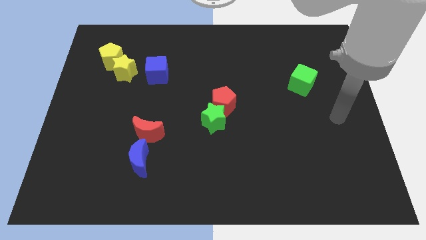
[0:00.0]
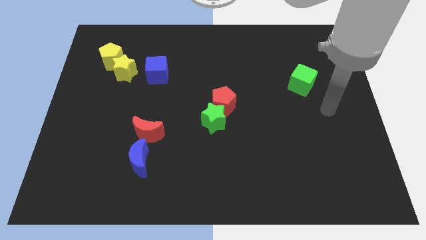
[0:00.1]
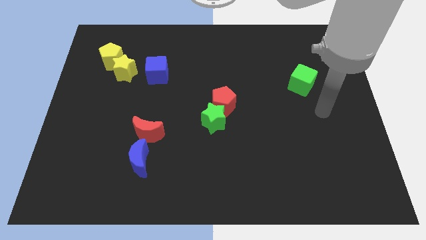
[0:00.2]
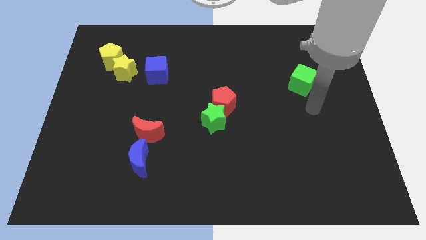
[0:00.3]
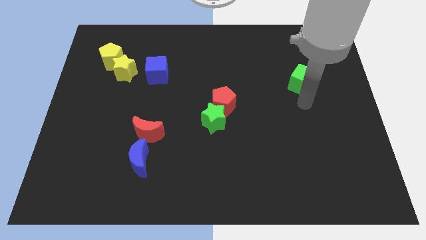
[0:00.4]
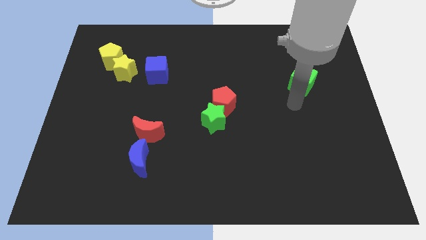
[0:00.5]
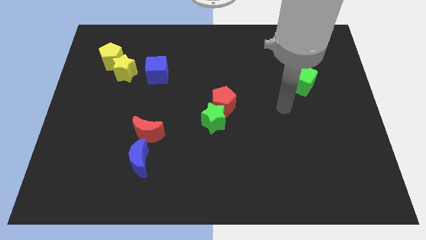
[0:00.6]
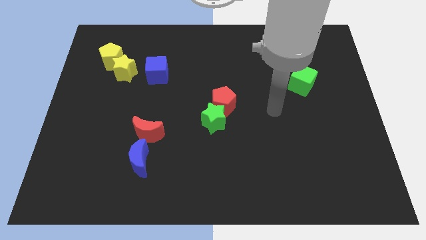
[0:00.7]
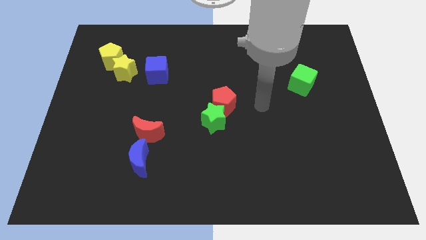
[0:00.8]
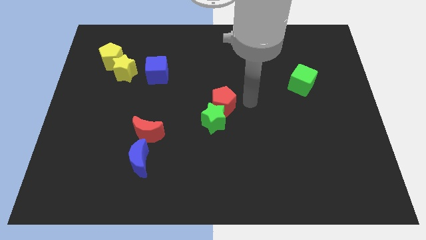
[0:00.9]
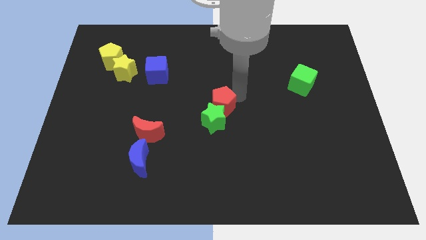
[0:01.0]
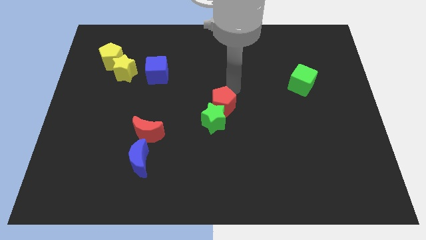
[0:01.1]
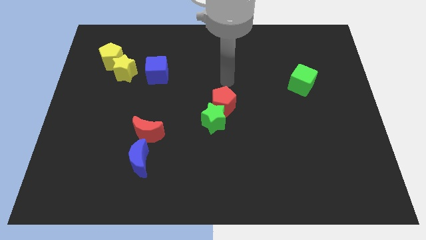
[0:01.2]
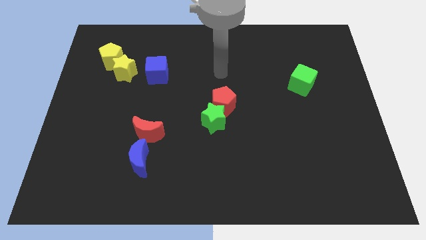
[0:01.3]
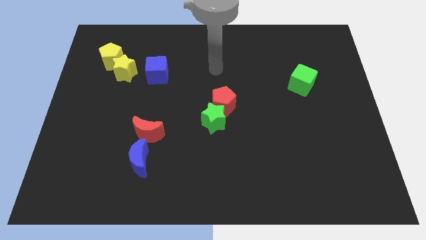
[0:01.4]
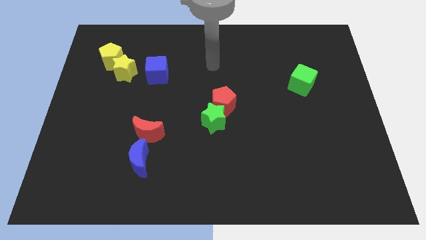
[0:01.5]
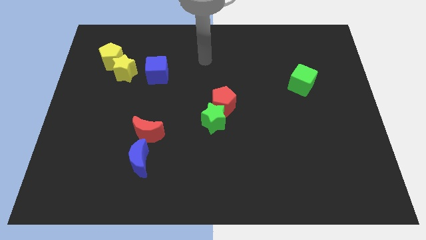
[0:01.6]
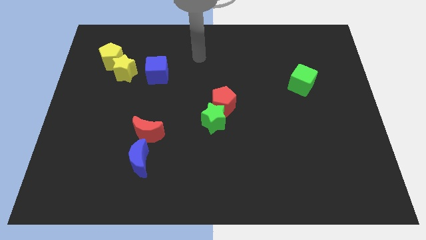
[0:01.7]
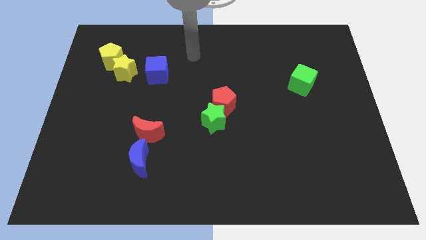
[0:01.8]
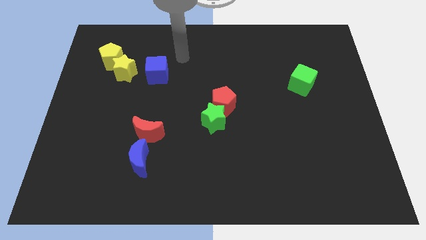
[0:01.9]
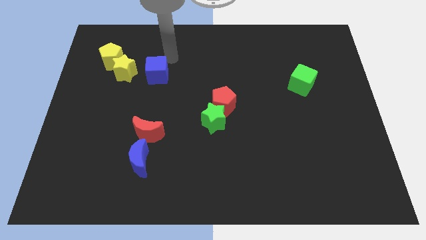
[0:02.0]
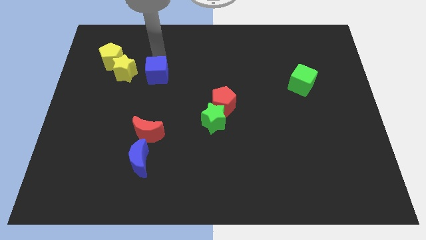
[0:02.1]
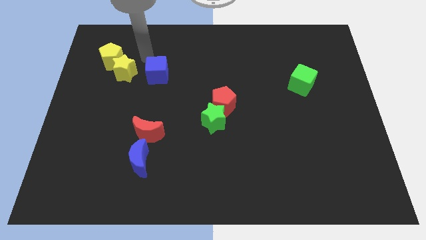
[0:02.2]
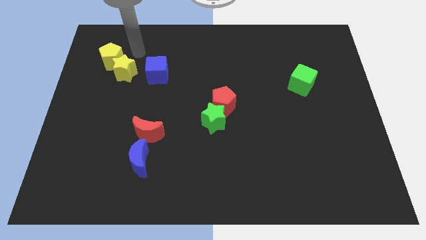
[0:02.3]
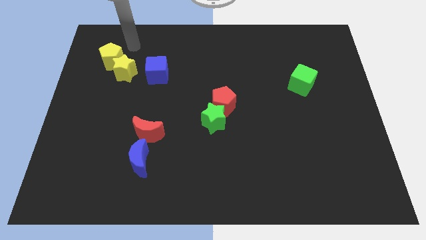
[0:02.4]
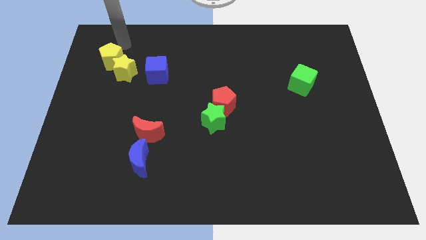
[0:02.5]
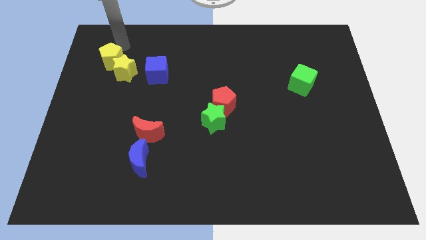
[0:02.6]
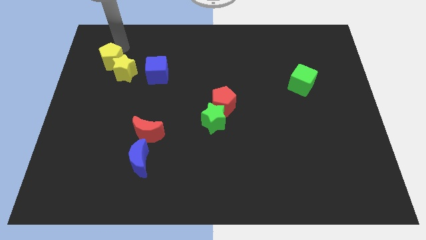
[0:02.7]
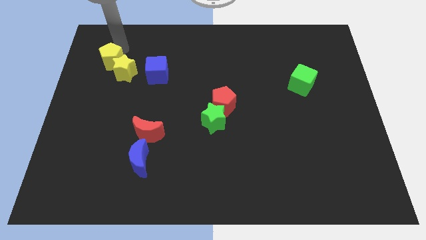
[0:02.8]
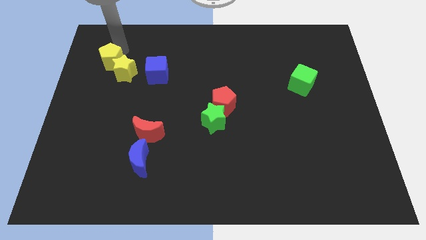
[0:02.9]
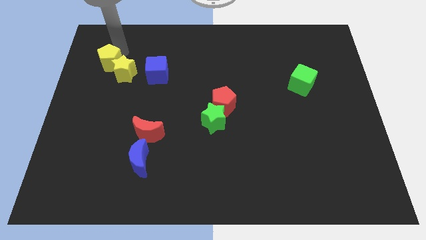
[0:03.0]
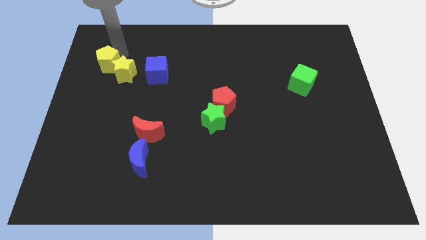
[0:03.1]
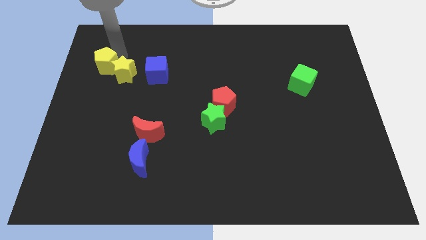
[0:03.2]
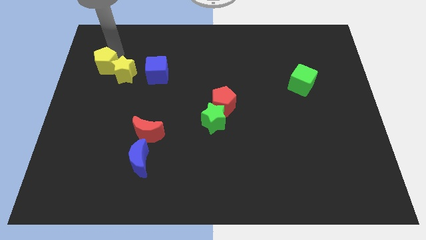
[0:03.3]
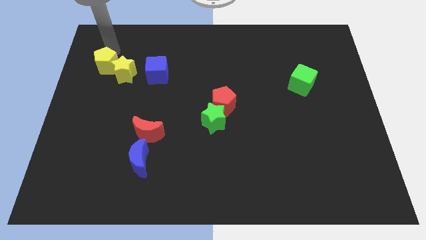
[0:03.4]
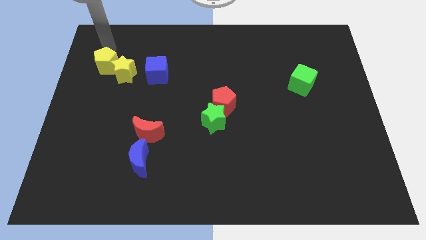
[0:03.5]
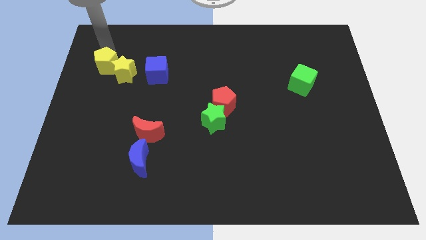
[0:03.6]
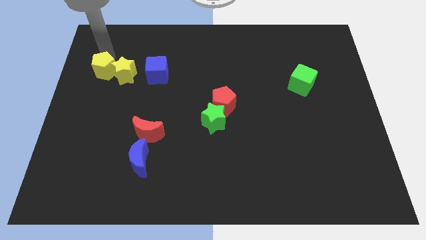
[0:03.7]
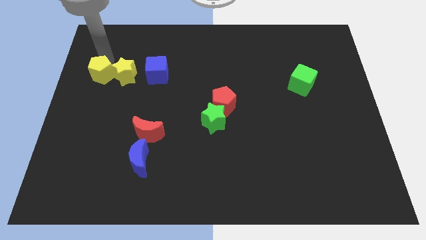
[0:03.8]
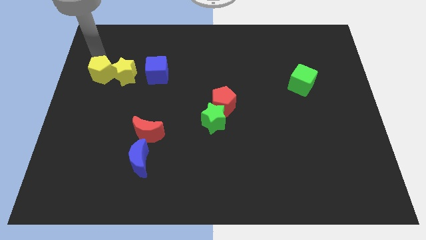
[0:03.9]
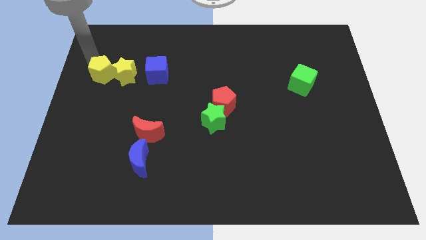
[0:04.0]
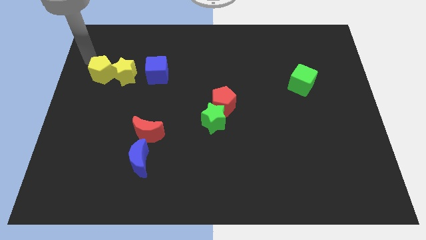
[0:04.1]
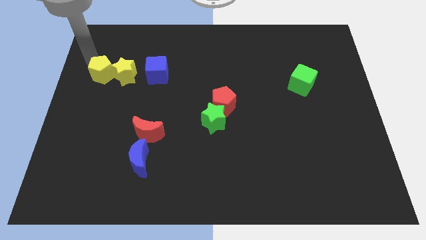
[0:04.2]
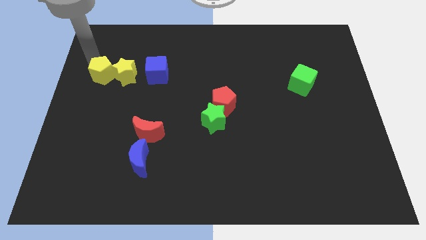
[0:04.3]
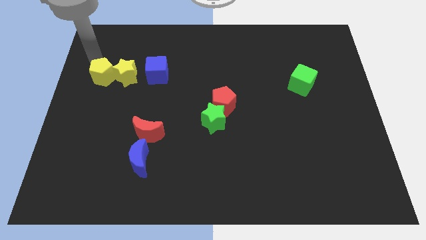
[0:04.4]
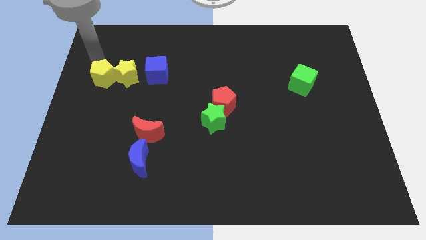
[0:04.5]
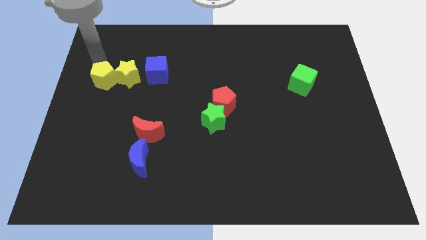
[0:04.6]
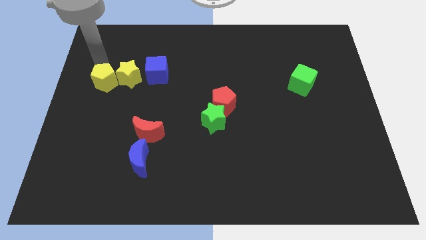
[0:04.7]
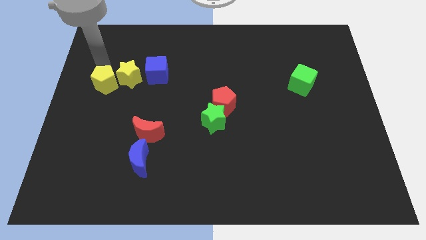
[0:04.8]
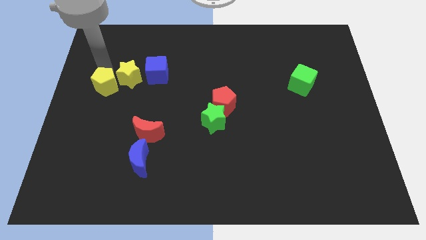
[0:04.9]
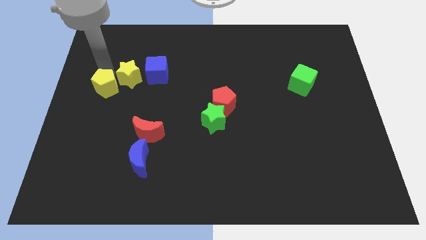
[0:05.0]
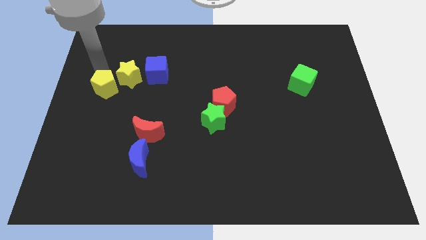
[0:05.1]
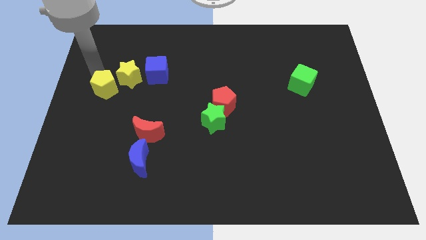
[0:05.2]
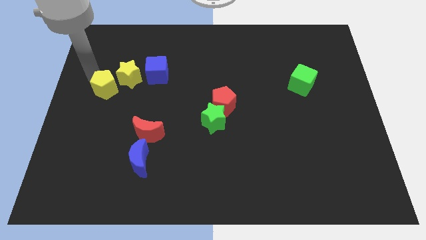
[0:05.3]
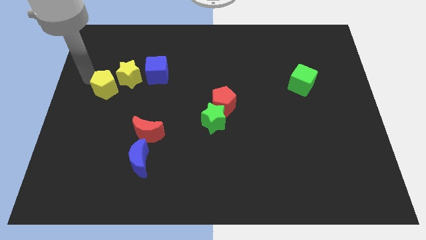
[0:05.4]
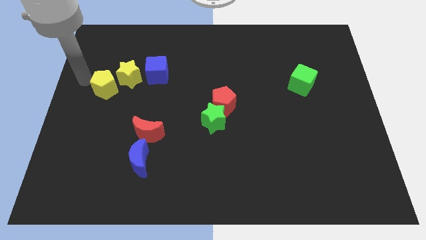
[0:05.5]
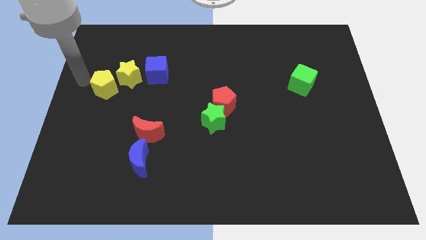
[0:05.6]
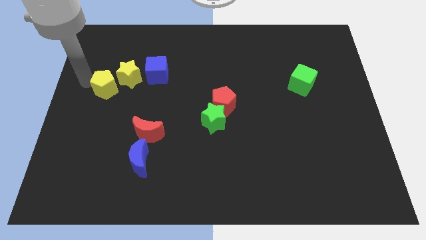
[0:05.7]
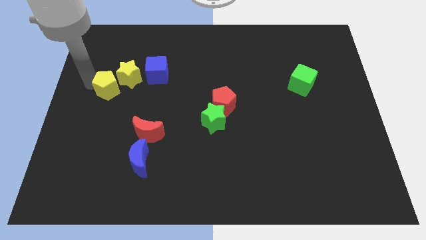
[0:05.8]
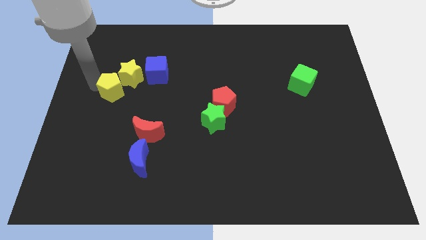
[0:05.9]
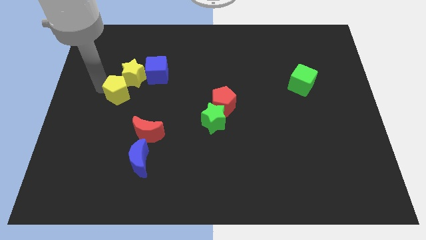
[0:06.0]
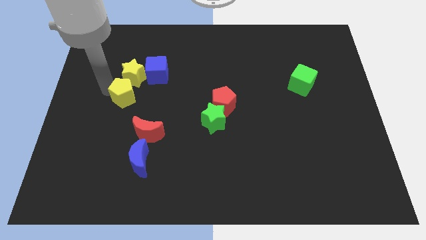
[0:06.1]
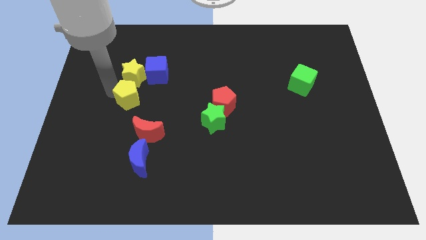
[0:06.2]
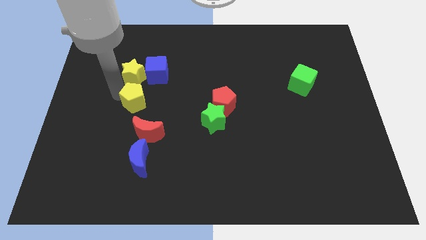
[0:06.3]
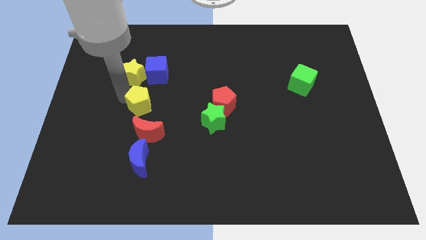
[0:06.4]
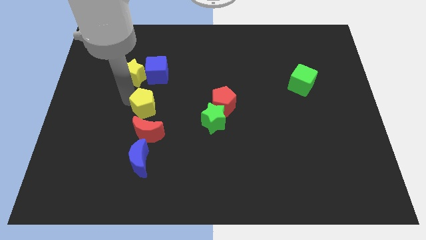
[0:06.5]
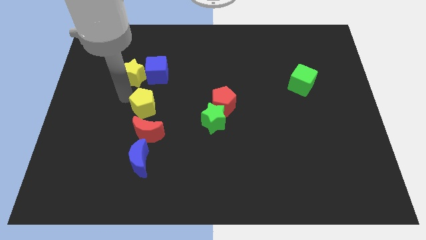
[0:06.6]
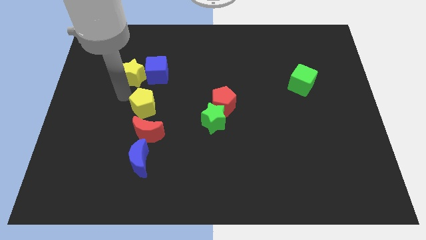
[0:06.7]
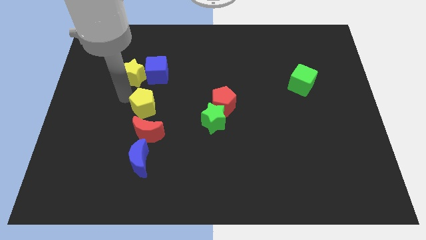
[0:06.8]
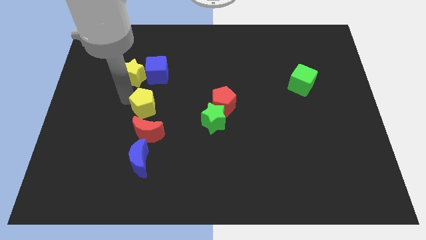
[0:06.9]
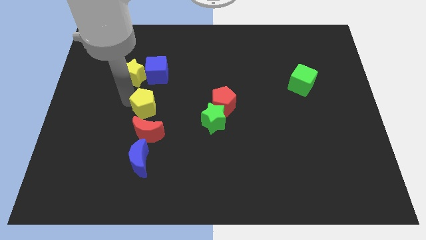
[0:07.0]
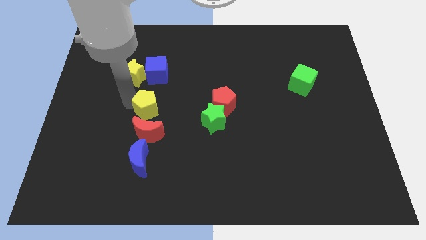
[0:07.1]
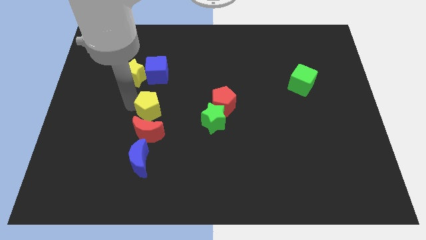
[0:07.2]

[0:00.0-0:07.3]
put the yellow pentagon to the left side of the green star
